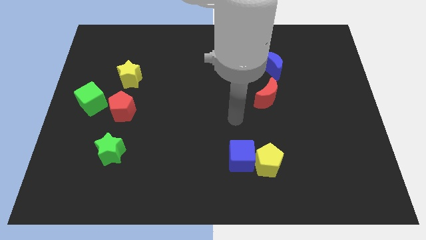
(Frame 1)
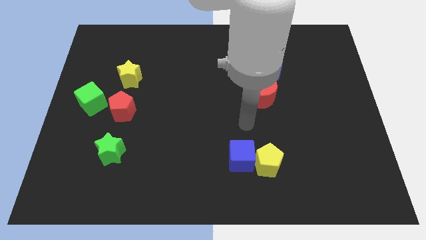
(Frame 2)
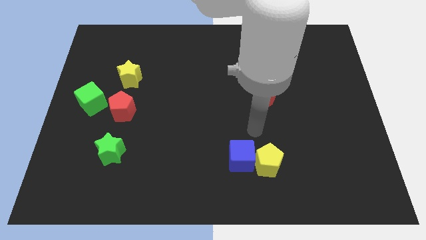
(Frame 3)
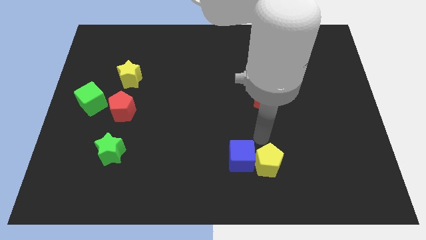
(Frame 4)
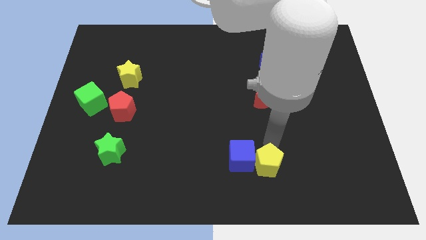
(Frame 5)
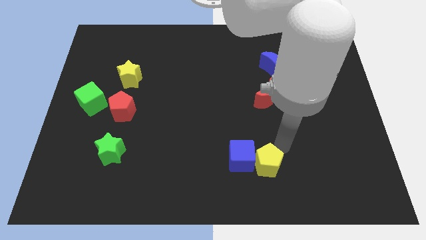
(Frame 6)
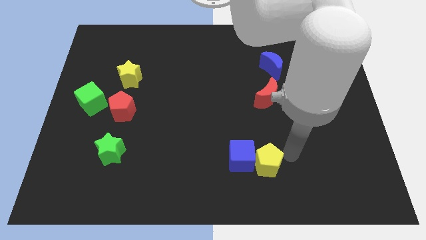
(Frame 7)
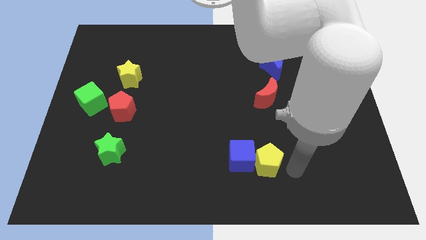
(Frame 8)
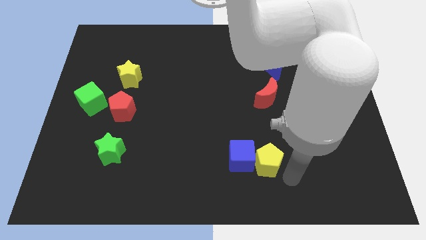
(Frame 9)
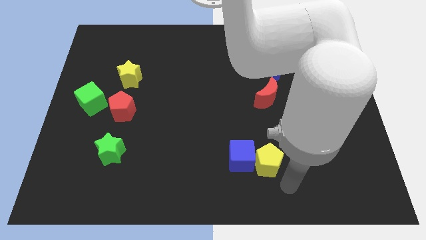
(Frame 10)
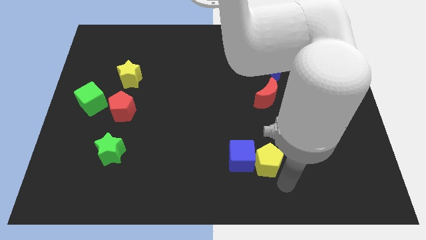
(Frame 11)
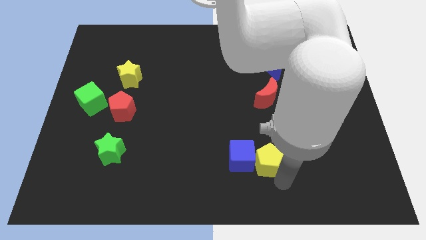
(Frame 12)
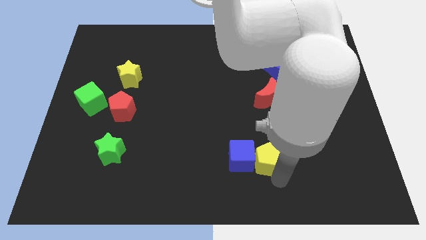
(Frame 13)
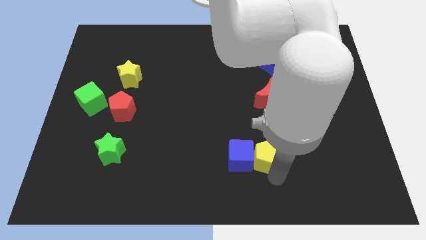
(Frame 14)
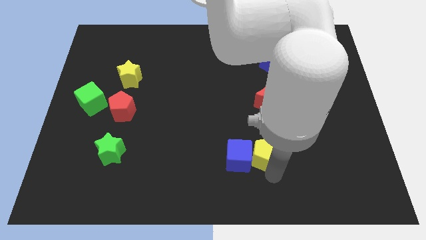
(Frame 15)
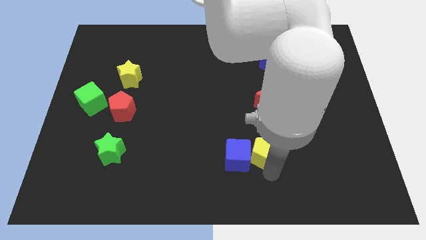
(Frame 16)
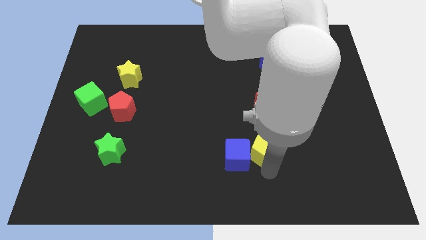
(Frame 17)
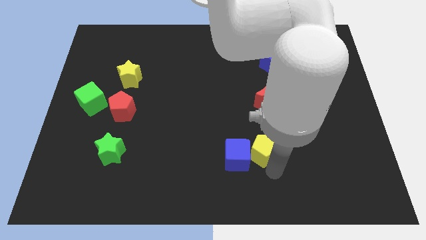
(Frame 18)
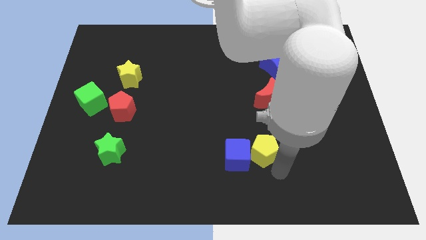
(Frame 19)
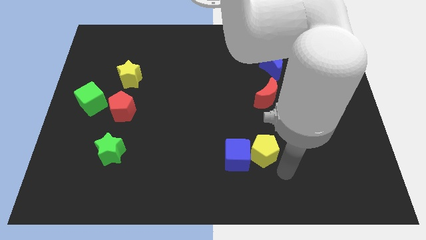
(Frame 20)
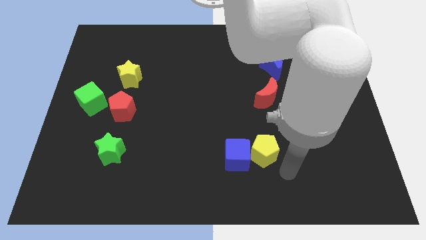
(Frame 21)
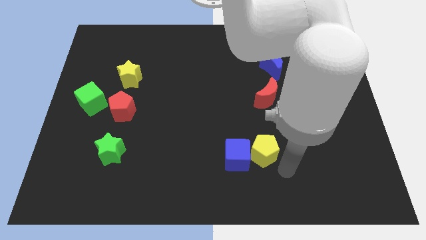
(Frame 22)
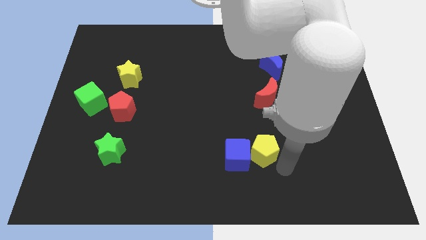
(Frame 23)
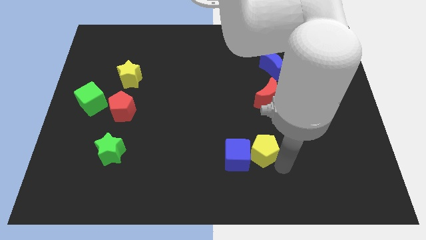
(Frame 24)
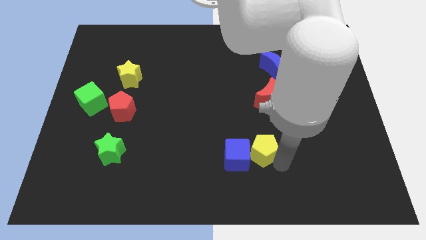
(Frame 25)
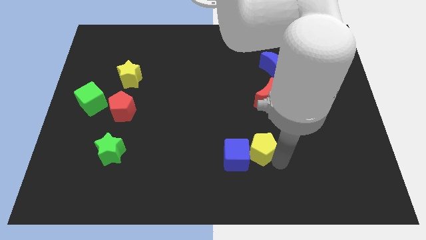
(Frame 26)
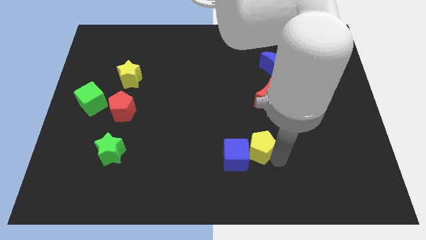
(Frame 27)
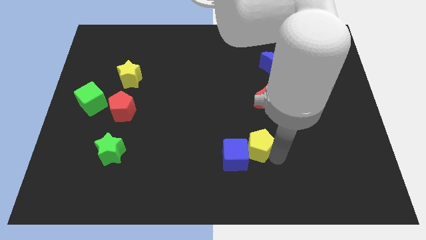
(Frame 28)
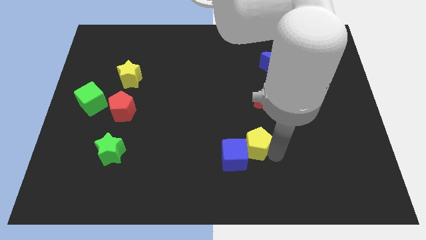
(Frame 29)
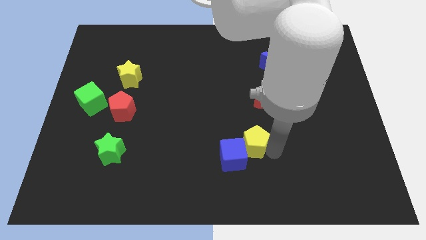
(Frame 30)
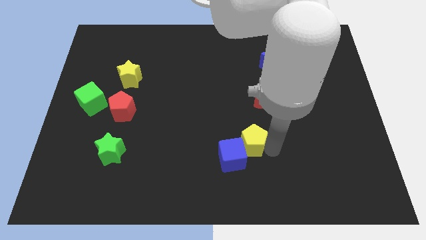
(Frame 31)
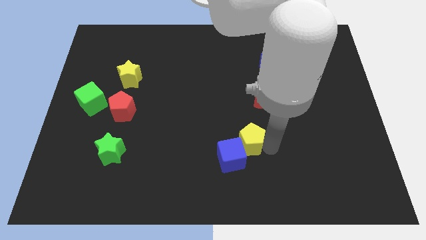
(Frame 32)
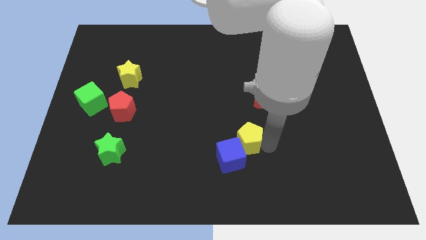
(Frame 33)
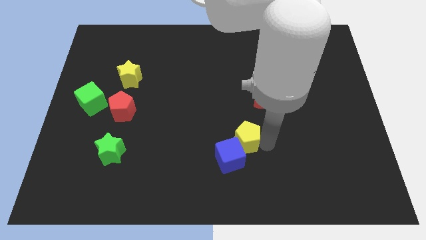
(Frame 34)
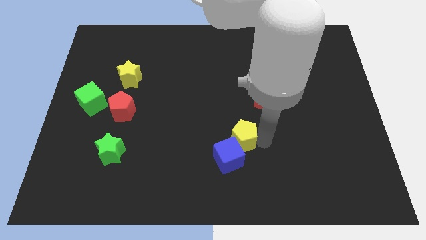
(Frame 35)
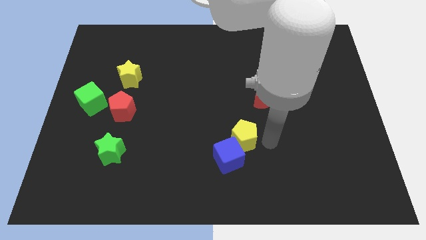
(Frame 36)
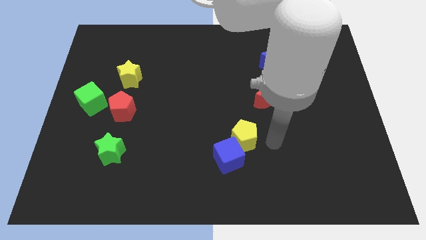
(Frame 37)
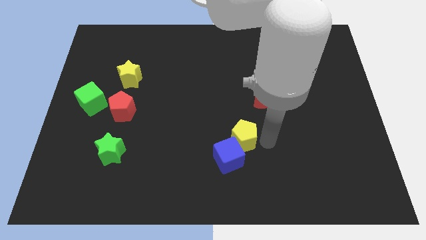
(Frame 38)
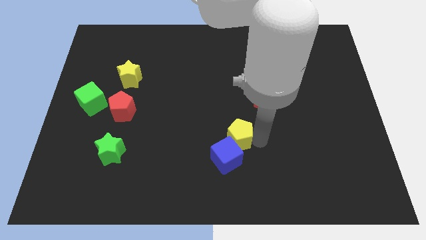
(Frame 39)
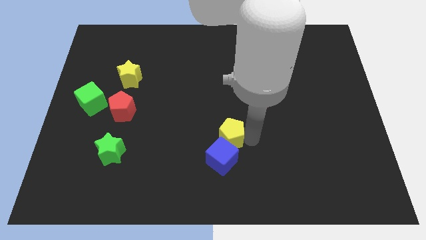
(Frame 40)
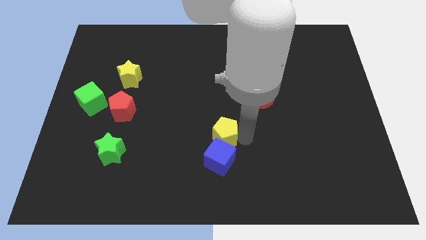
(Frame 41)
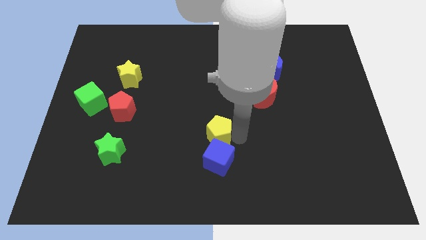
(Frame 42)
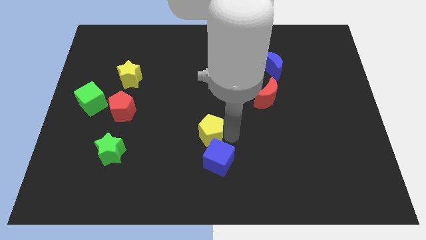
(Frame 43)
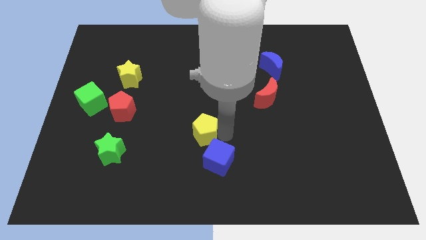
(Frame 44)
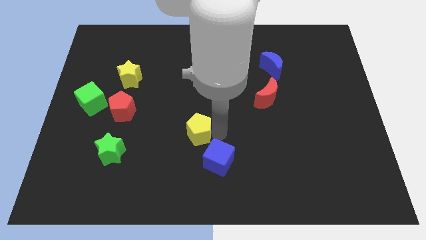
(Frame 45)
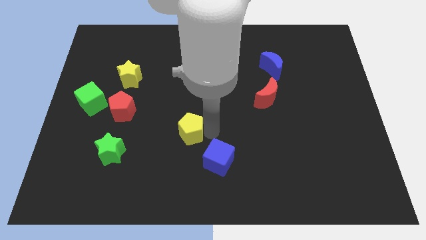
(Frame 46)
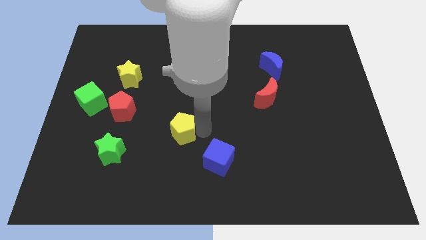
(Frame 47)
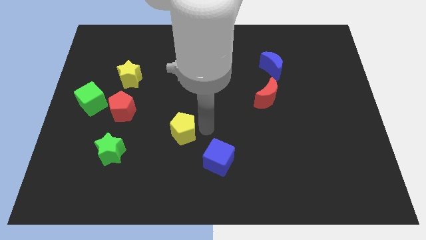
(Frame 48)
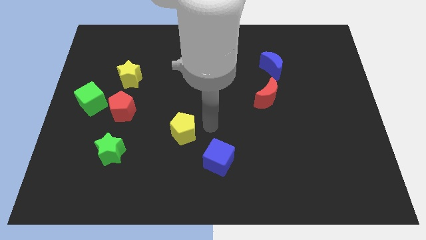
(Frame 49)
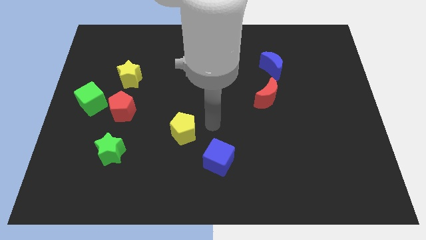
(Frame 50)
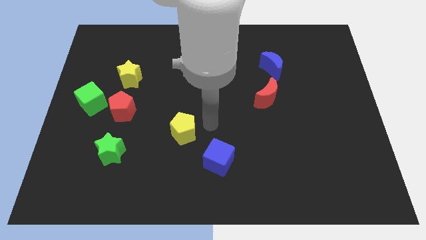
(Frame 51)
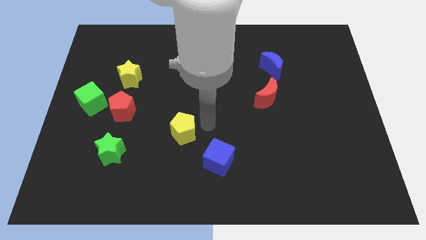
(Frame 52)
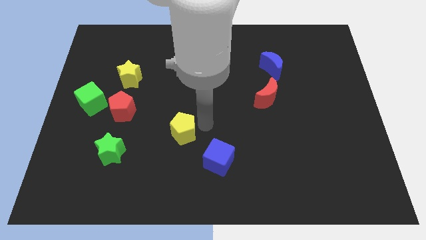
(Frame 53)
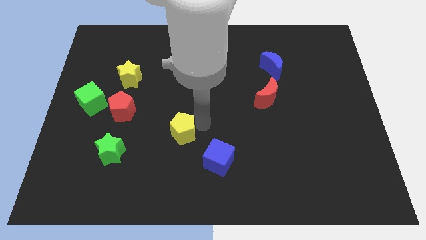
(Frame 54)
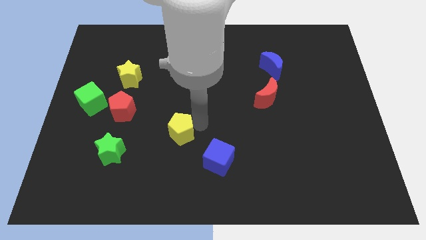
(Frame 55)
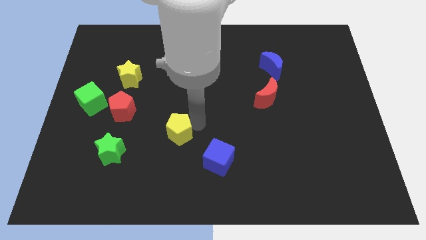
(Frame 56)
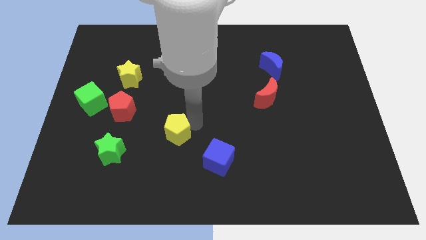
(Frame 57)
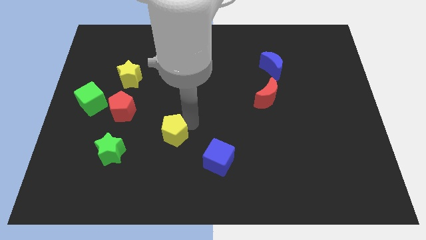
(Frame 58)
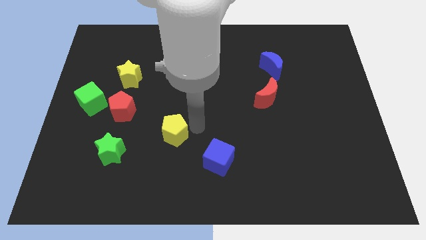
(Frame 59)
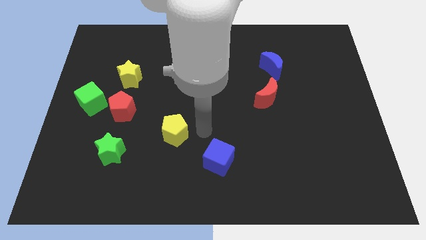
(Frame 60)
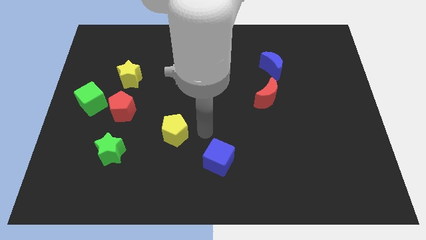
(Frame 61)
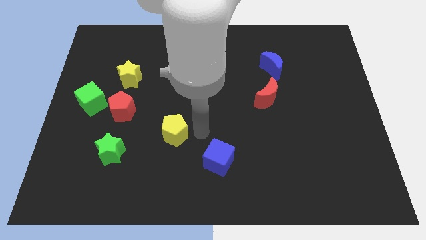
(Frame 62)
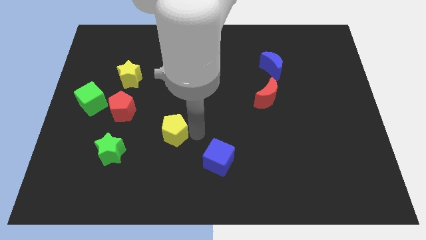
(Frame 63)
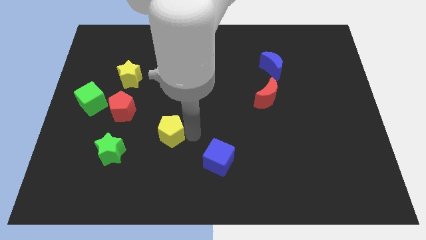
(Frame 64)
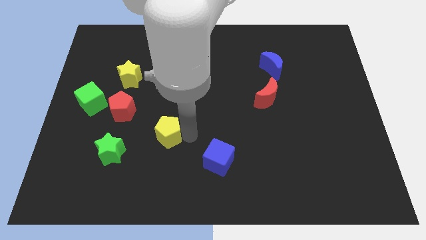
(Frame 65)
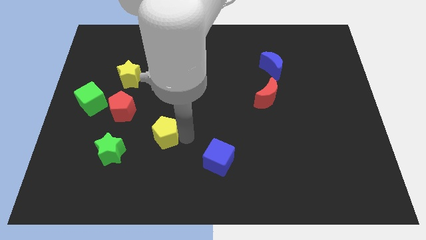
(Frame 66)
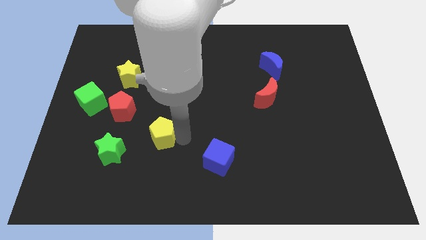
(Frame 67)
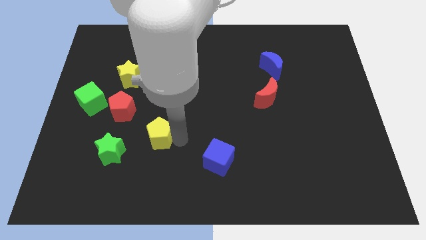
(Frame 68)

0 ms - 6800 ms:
push the yellow pentagon diagonally up and to the right of the green star
